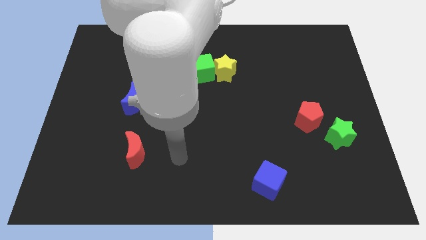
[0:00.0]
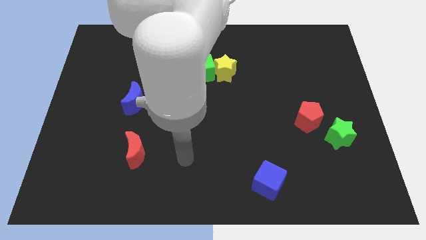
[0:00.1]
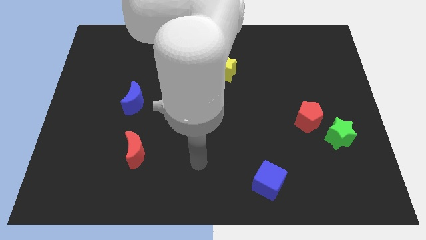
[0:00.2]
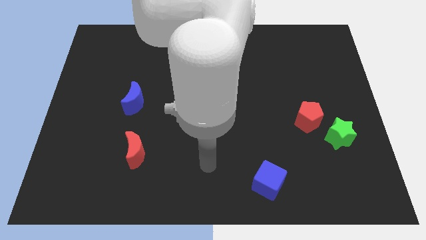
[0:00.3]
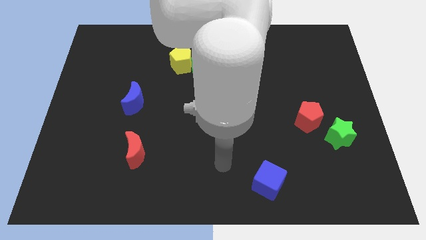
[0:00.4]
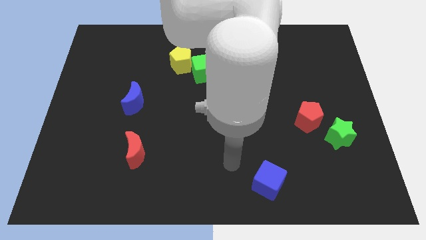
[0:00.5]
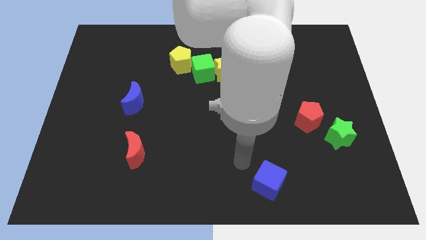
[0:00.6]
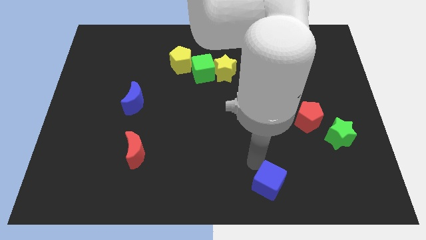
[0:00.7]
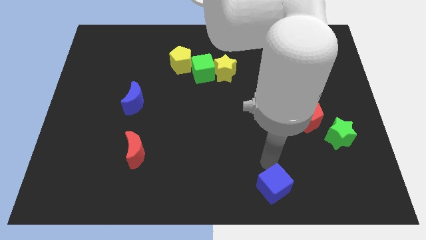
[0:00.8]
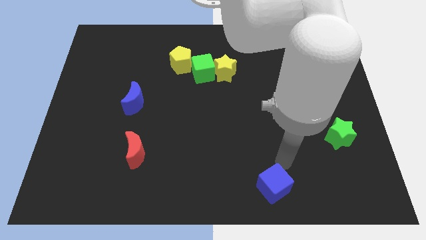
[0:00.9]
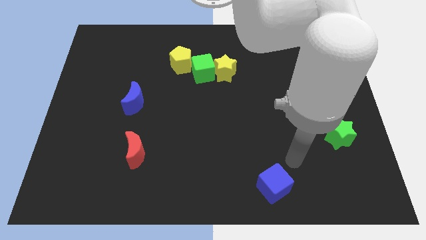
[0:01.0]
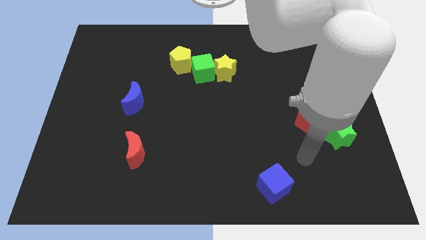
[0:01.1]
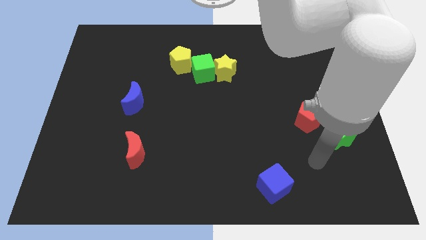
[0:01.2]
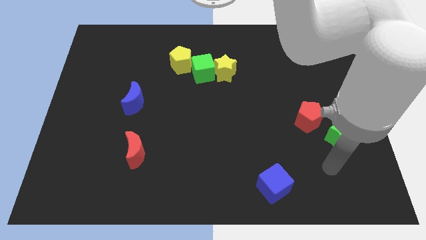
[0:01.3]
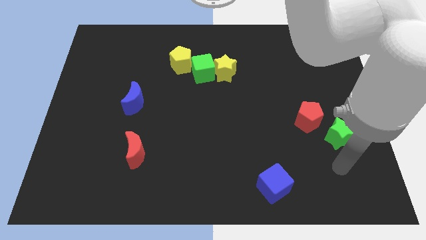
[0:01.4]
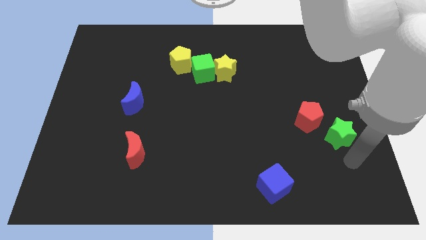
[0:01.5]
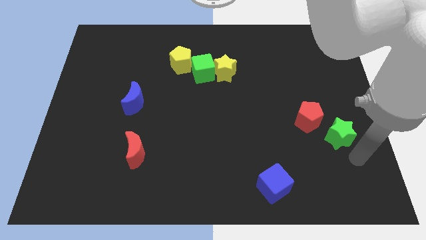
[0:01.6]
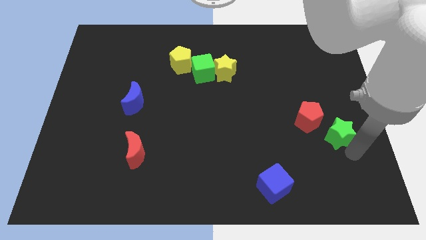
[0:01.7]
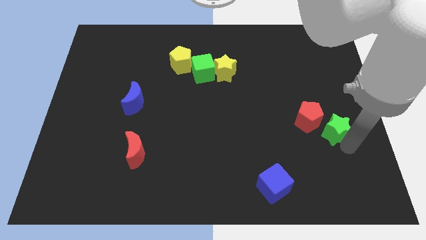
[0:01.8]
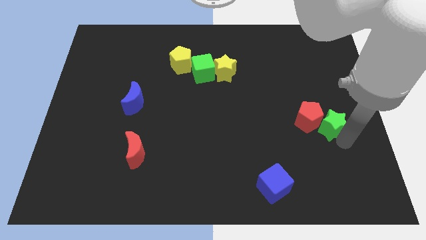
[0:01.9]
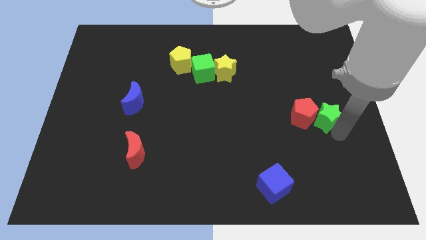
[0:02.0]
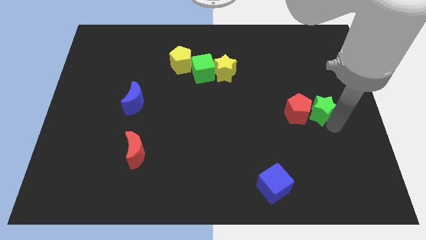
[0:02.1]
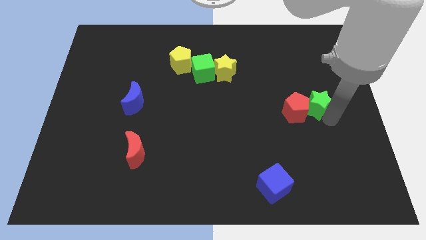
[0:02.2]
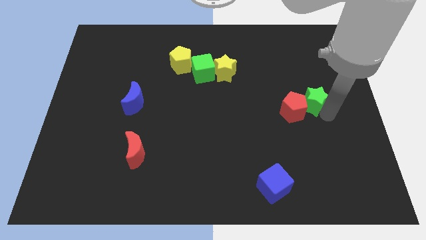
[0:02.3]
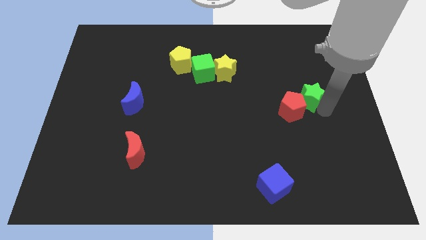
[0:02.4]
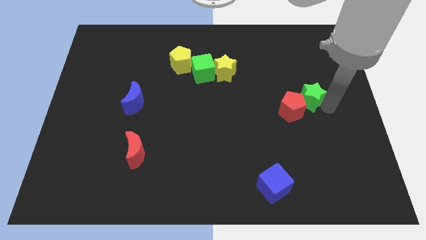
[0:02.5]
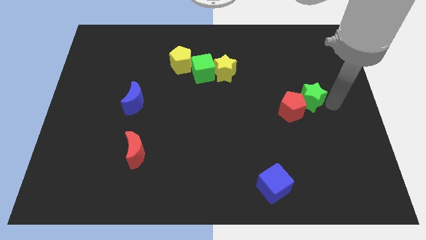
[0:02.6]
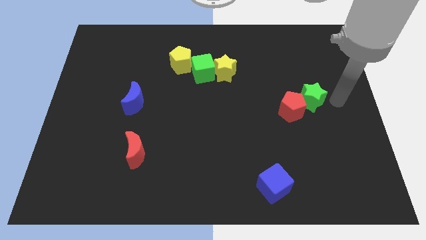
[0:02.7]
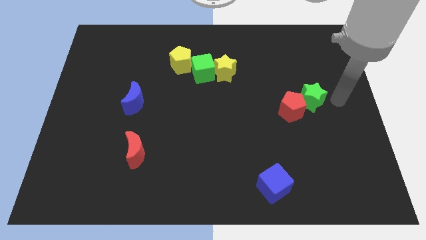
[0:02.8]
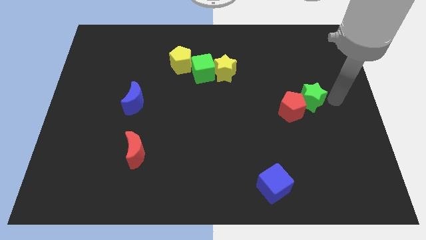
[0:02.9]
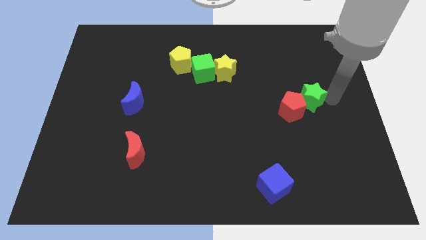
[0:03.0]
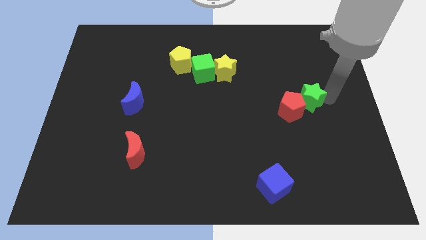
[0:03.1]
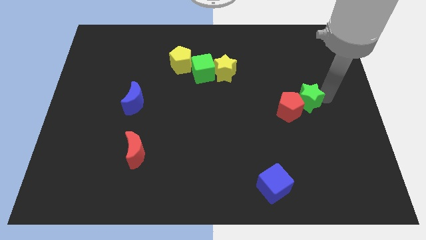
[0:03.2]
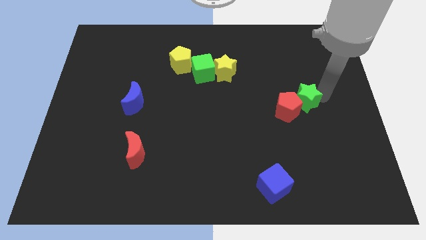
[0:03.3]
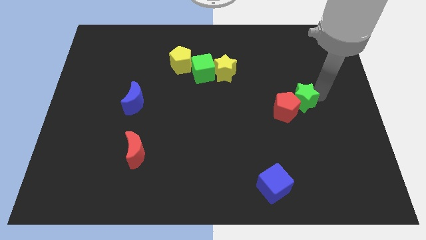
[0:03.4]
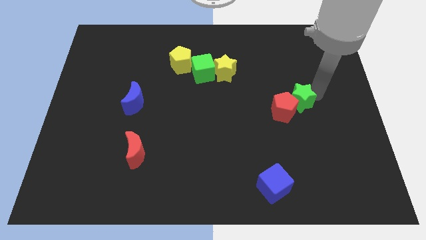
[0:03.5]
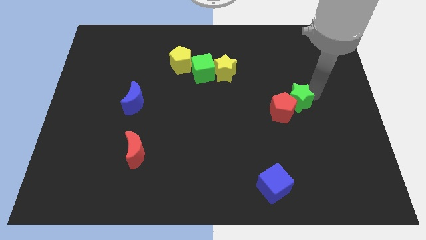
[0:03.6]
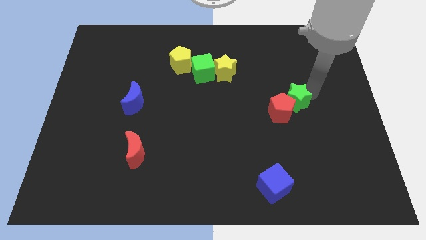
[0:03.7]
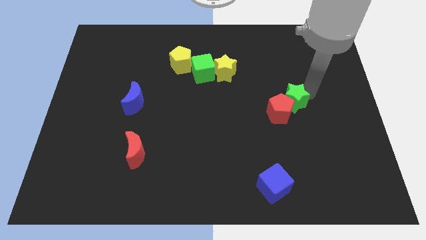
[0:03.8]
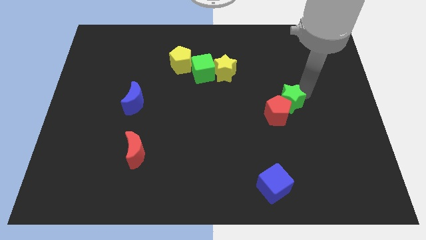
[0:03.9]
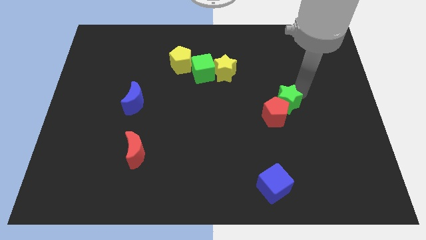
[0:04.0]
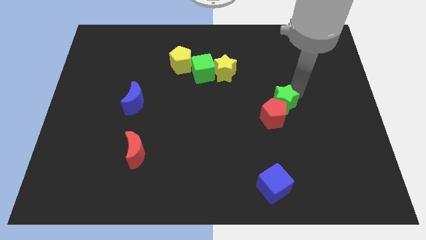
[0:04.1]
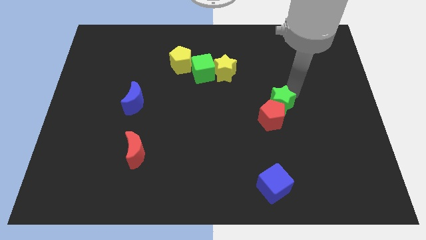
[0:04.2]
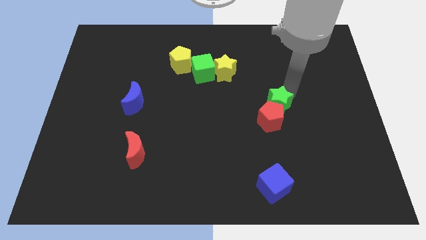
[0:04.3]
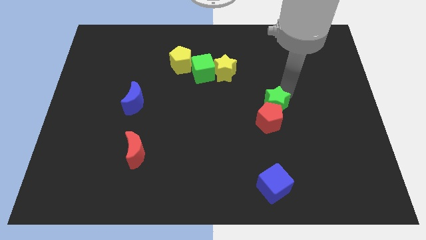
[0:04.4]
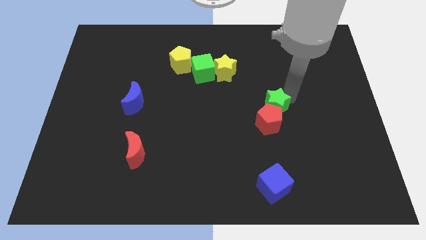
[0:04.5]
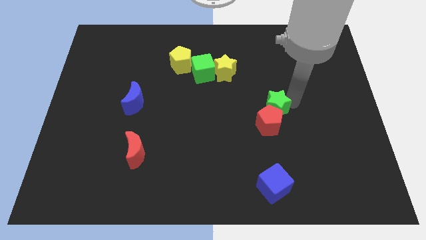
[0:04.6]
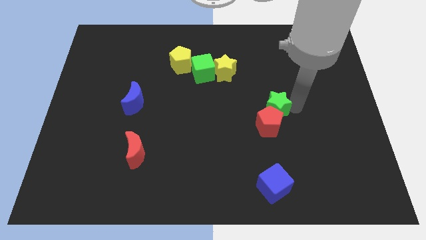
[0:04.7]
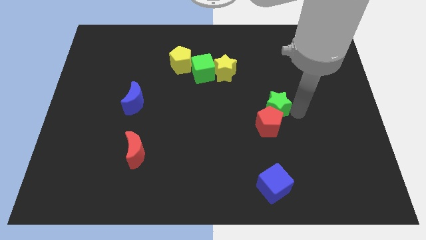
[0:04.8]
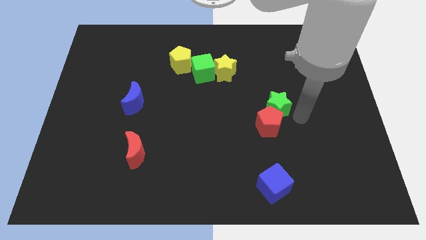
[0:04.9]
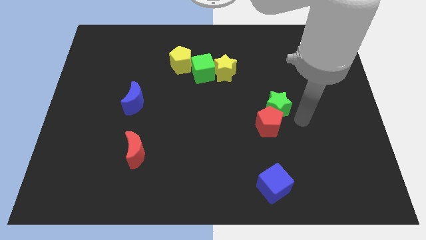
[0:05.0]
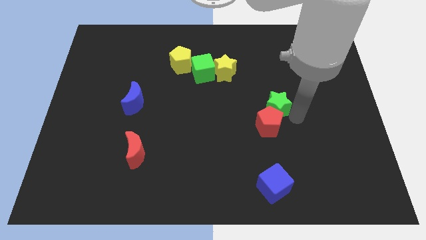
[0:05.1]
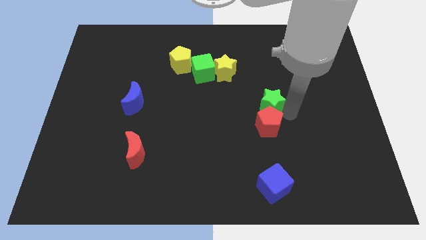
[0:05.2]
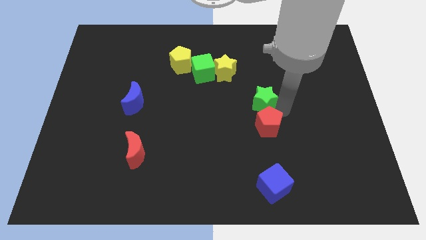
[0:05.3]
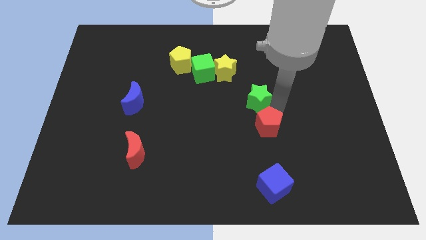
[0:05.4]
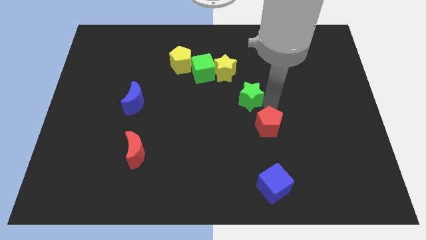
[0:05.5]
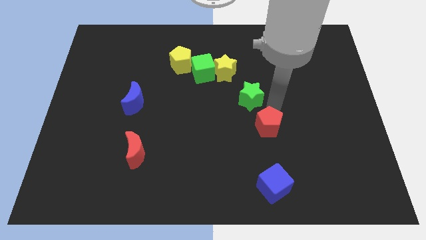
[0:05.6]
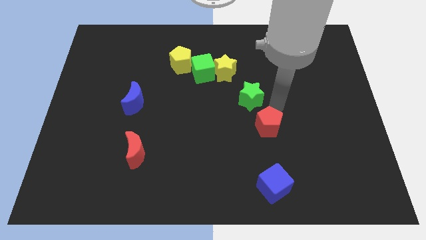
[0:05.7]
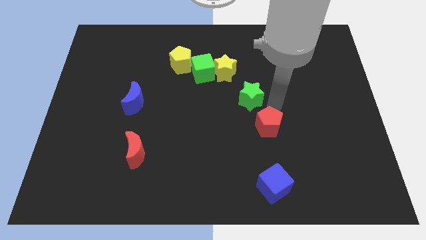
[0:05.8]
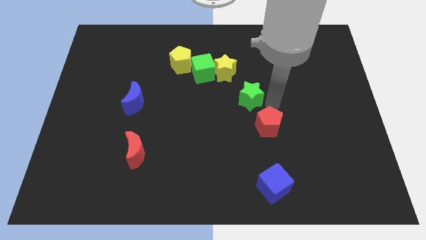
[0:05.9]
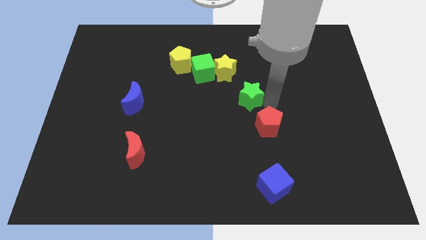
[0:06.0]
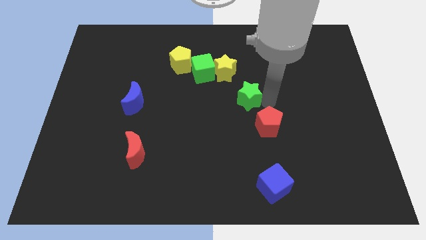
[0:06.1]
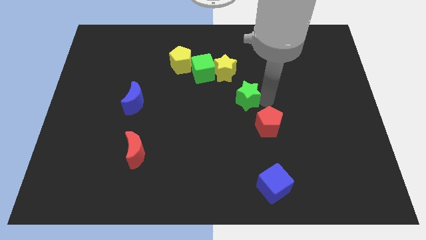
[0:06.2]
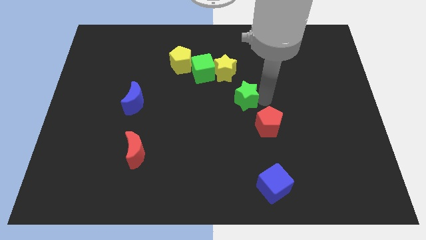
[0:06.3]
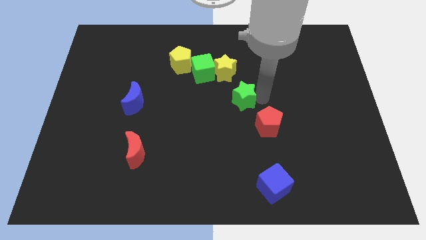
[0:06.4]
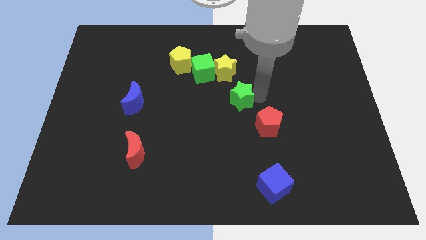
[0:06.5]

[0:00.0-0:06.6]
move the green star to the bottom right side of the green cube
